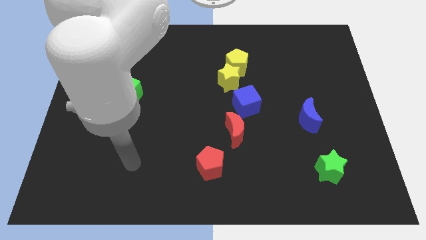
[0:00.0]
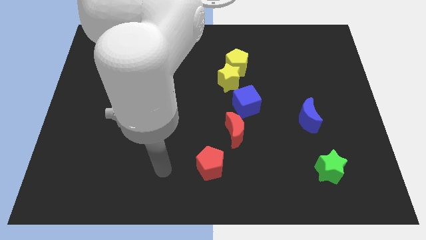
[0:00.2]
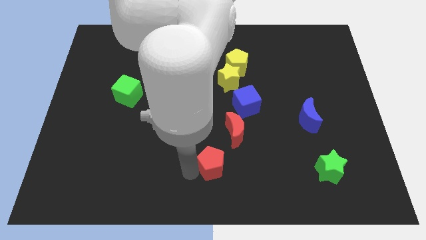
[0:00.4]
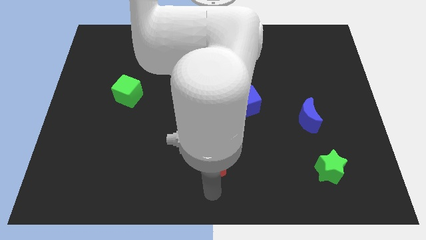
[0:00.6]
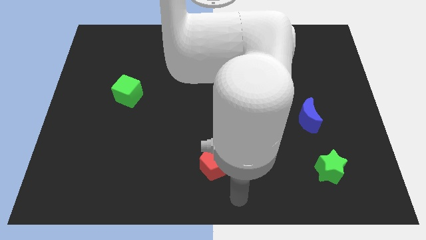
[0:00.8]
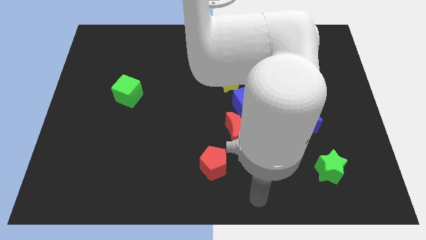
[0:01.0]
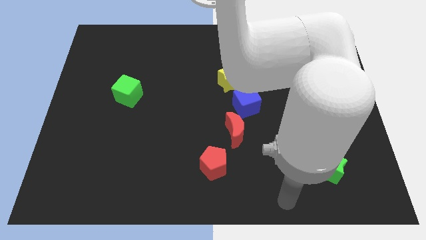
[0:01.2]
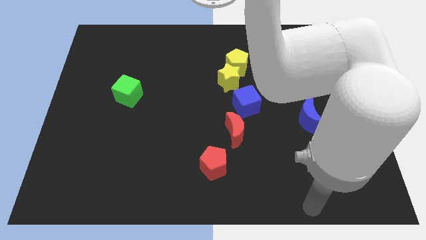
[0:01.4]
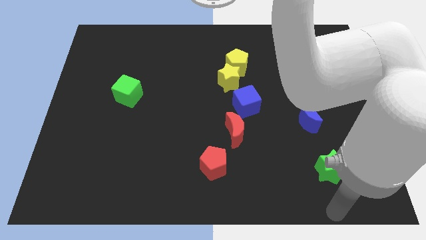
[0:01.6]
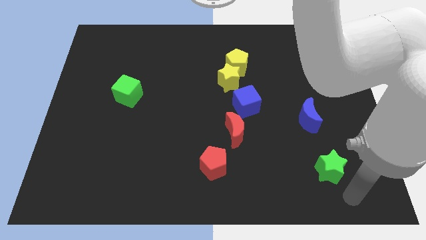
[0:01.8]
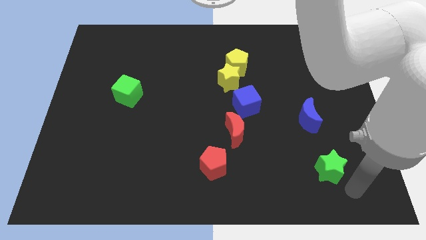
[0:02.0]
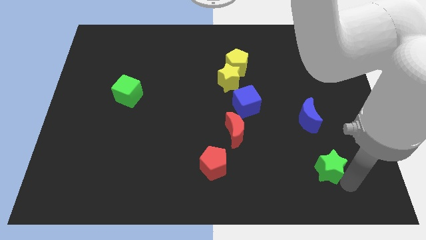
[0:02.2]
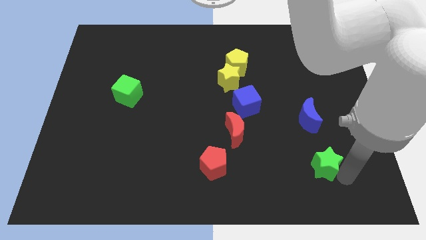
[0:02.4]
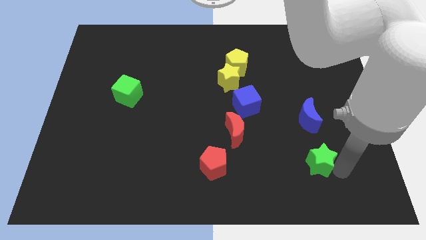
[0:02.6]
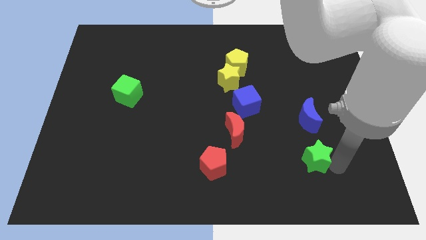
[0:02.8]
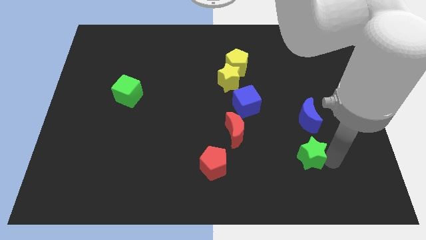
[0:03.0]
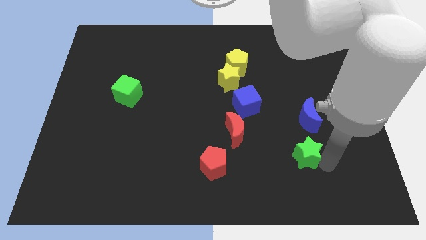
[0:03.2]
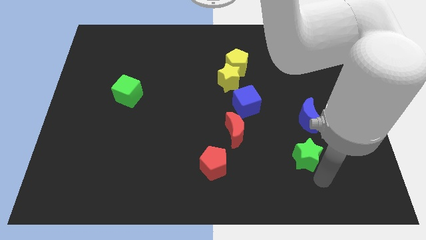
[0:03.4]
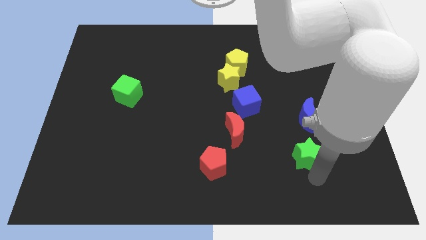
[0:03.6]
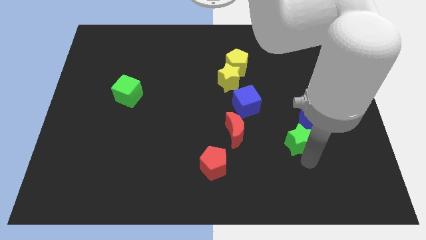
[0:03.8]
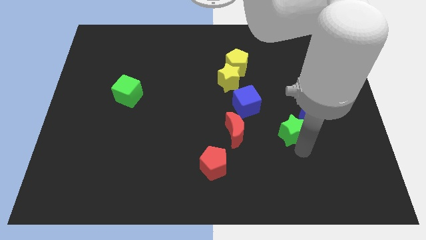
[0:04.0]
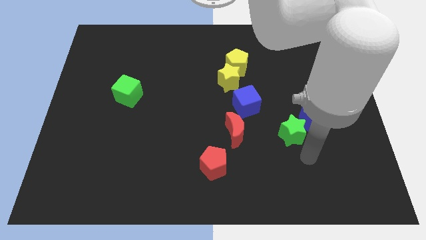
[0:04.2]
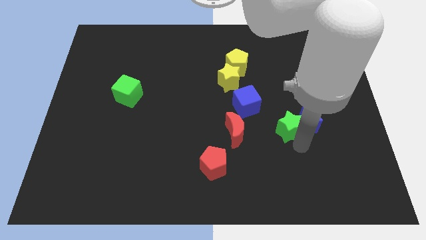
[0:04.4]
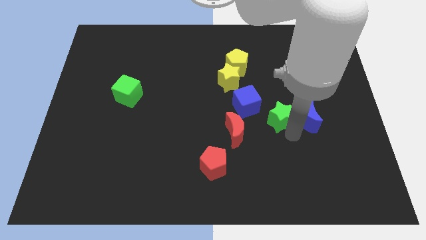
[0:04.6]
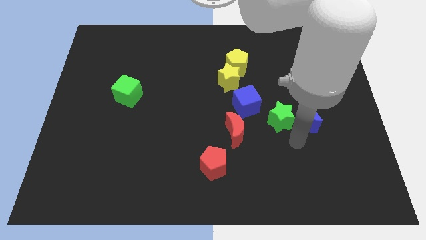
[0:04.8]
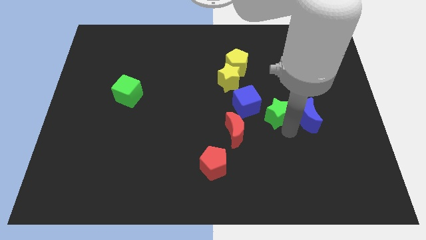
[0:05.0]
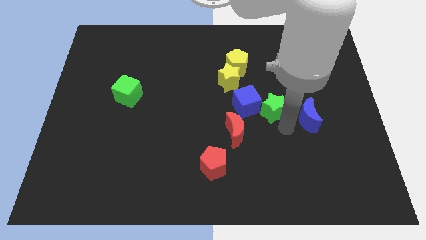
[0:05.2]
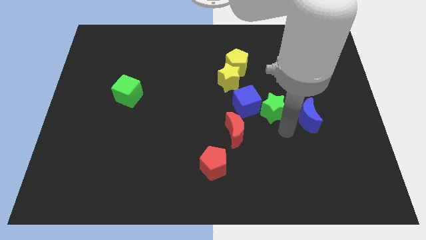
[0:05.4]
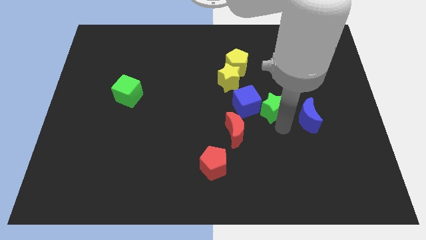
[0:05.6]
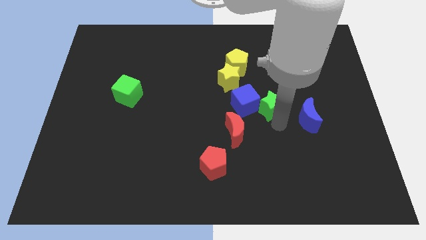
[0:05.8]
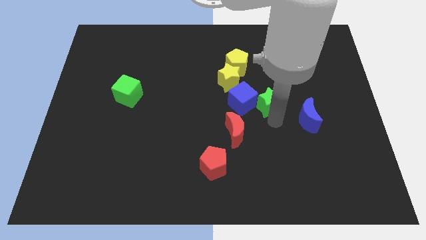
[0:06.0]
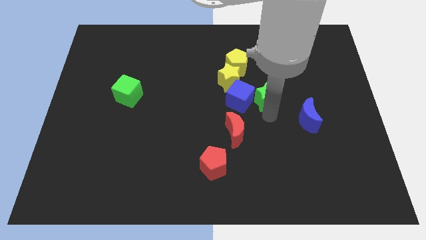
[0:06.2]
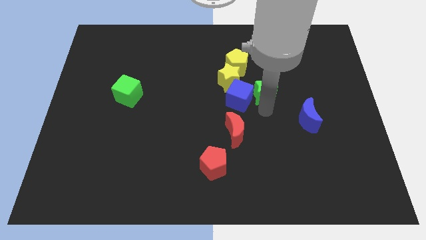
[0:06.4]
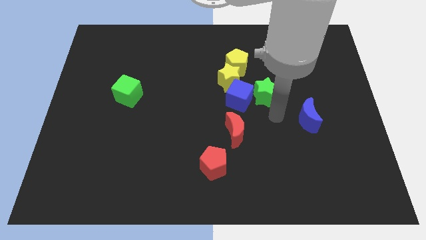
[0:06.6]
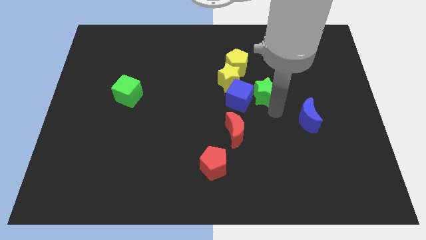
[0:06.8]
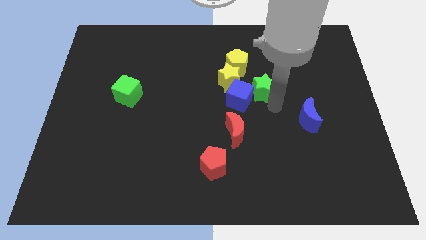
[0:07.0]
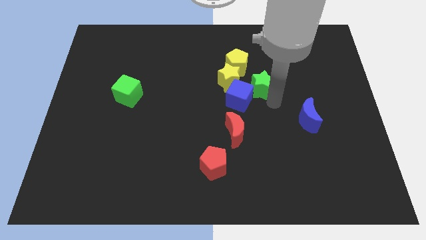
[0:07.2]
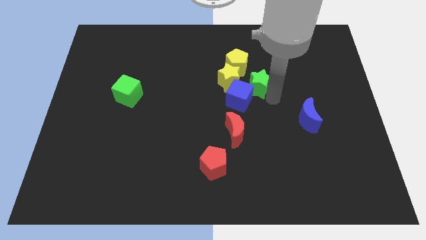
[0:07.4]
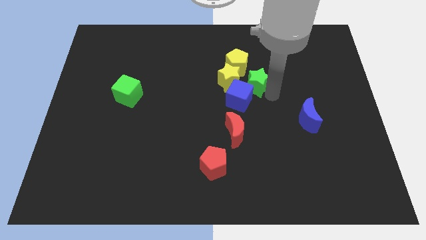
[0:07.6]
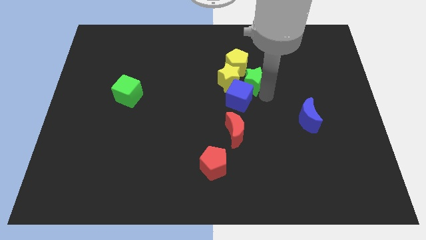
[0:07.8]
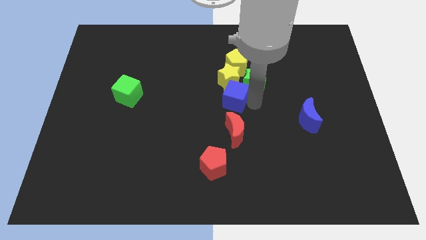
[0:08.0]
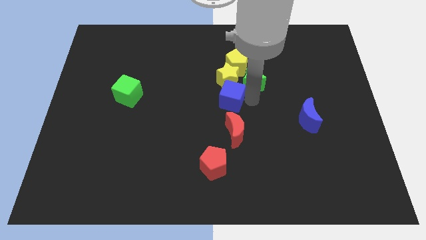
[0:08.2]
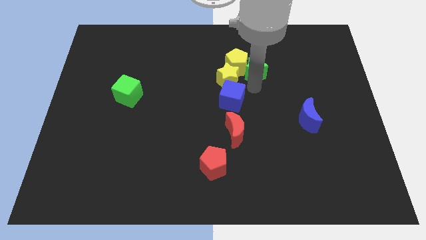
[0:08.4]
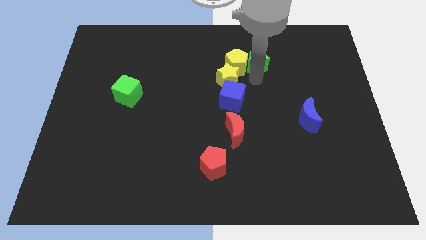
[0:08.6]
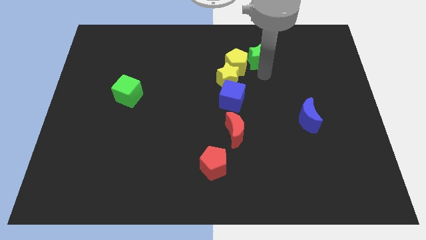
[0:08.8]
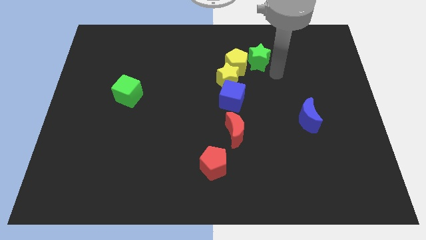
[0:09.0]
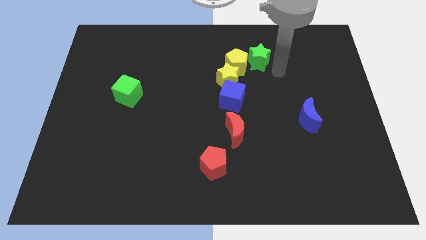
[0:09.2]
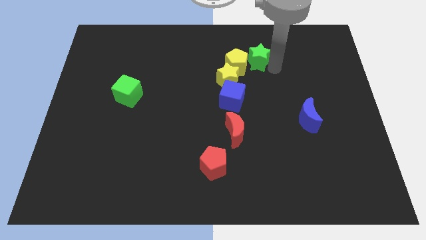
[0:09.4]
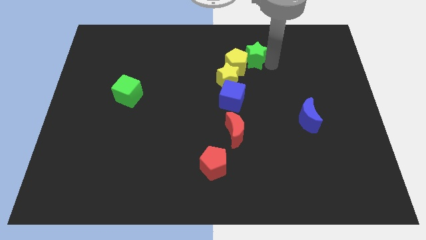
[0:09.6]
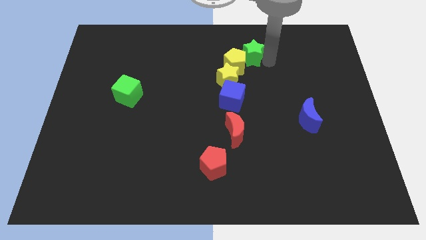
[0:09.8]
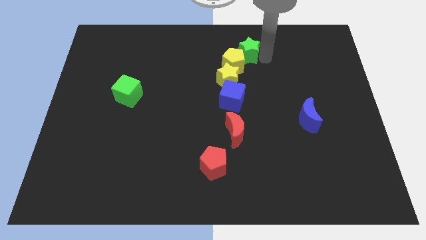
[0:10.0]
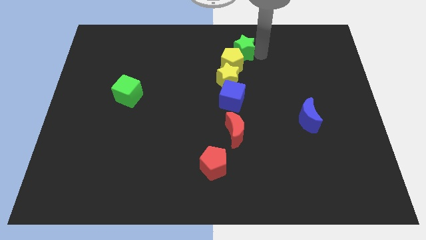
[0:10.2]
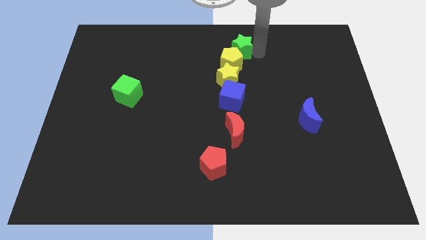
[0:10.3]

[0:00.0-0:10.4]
push the green star to the top side

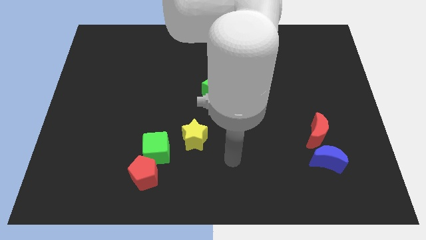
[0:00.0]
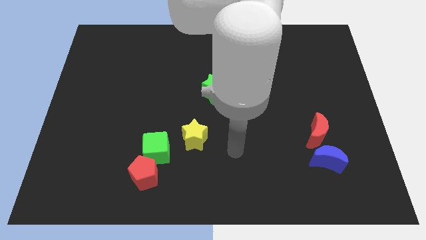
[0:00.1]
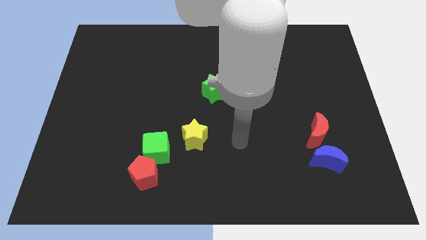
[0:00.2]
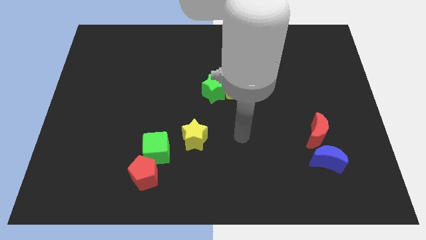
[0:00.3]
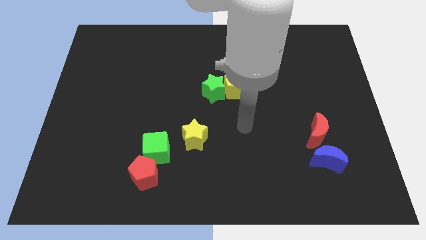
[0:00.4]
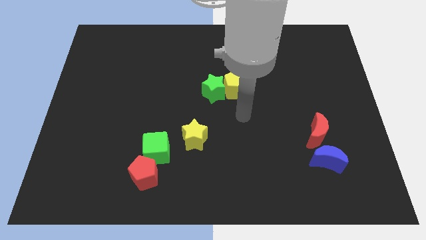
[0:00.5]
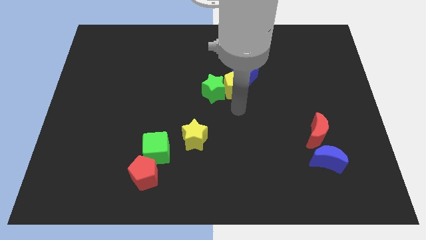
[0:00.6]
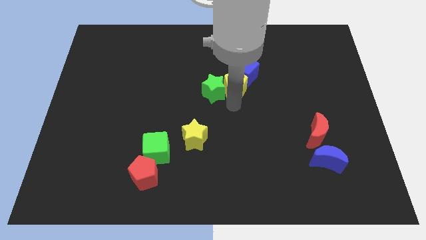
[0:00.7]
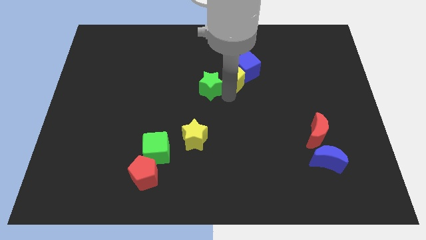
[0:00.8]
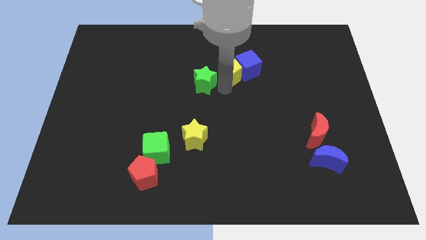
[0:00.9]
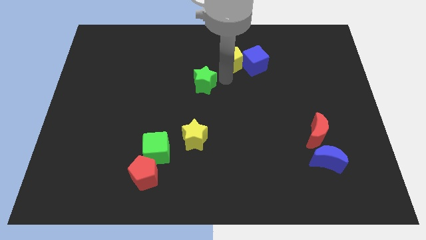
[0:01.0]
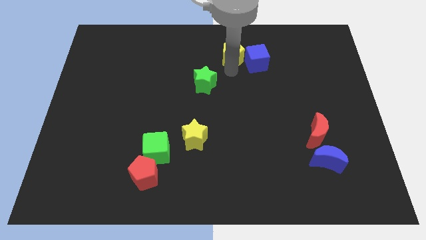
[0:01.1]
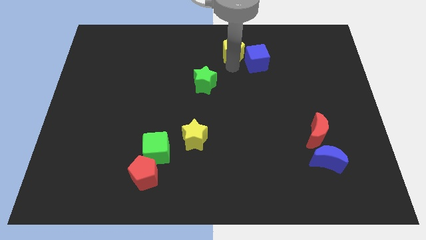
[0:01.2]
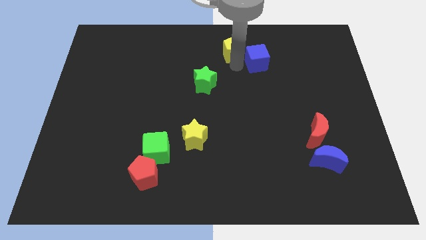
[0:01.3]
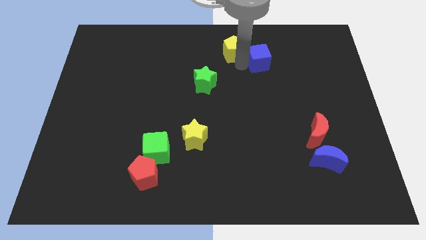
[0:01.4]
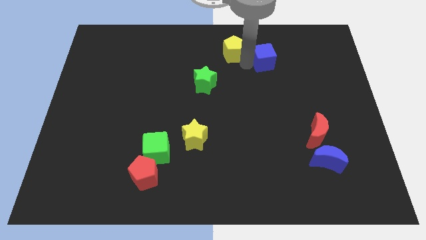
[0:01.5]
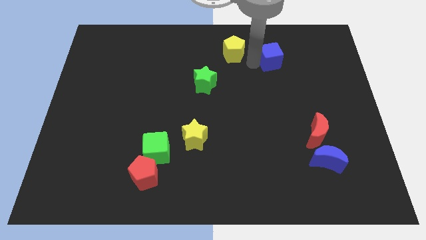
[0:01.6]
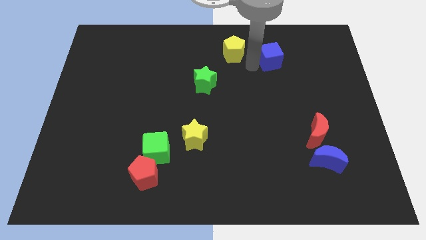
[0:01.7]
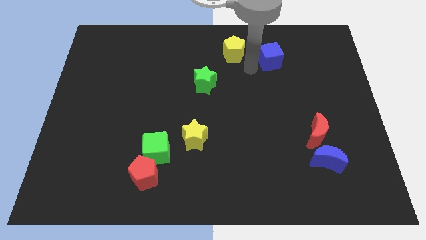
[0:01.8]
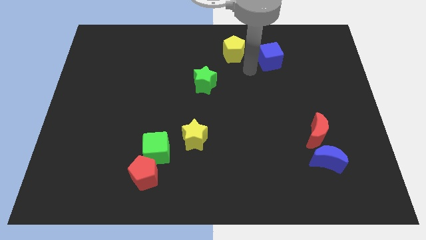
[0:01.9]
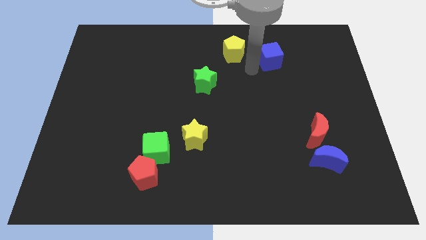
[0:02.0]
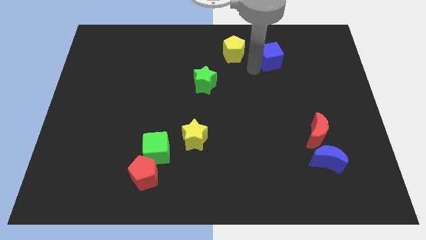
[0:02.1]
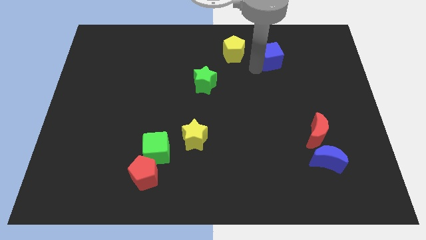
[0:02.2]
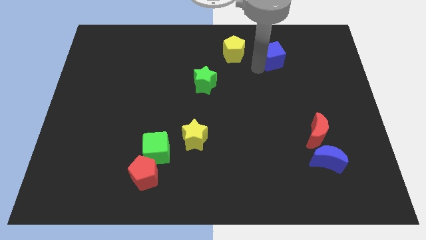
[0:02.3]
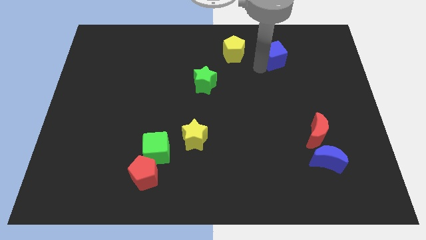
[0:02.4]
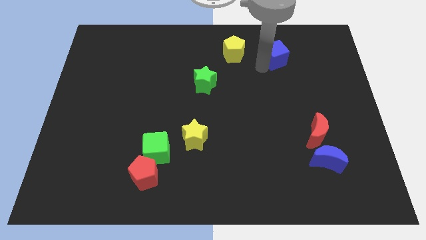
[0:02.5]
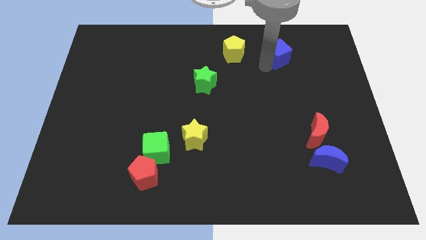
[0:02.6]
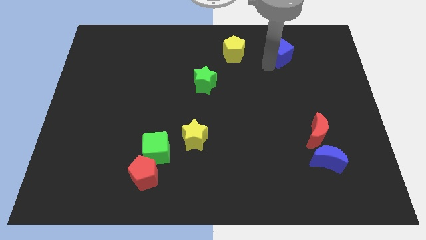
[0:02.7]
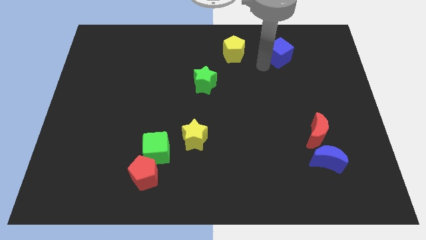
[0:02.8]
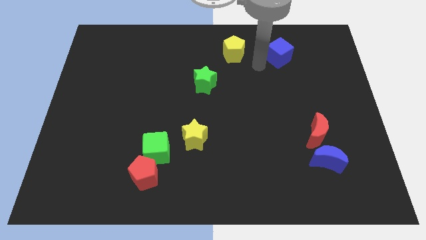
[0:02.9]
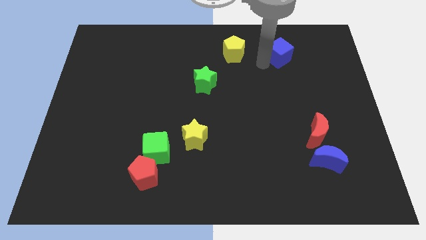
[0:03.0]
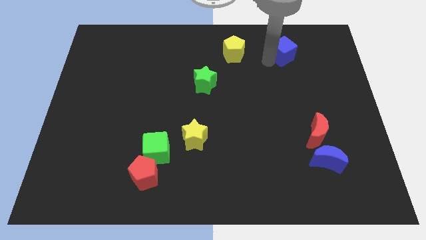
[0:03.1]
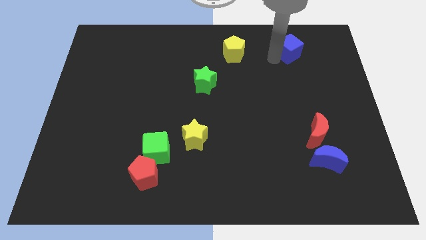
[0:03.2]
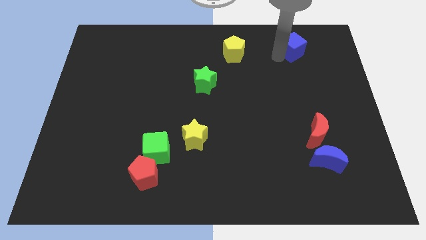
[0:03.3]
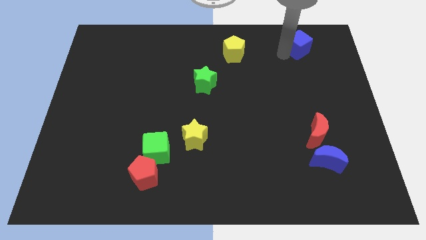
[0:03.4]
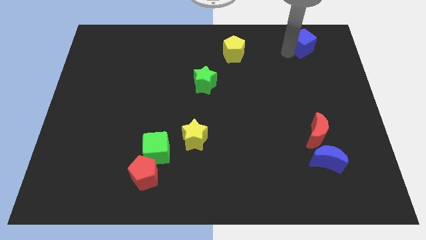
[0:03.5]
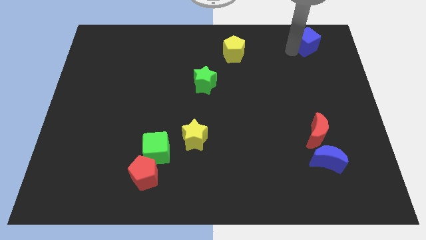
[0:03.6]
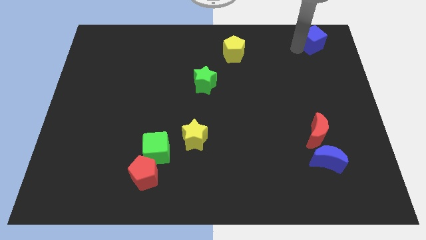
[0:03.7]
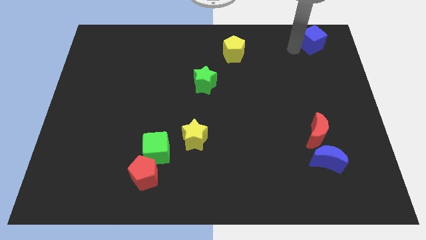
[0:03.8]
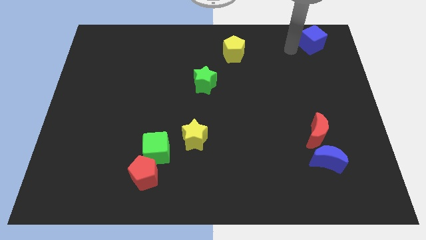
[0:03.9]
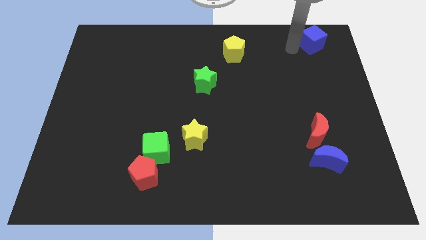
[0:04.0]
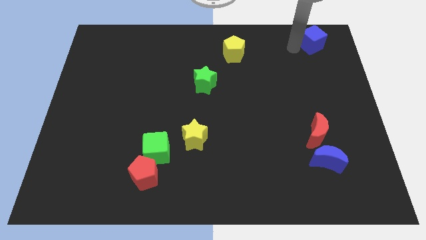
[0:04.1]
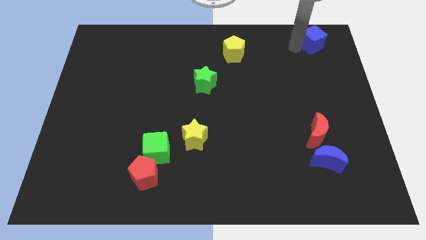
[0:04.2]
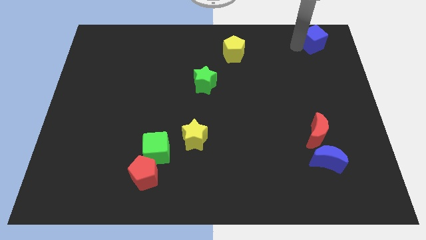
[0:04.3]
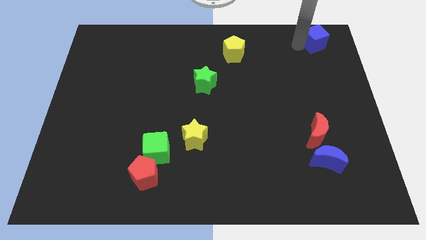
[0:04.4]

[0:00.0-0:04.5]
move the blue cube to the upper right corner
